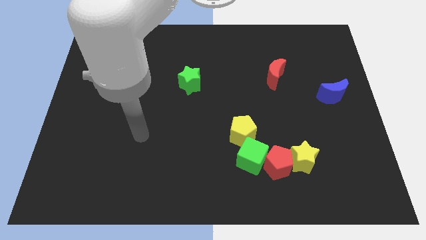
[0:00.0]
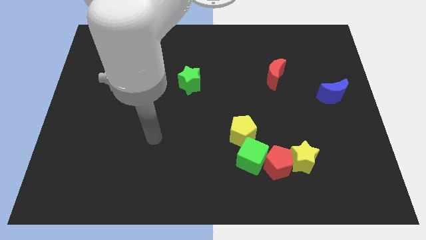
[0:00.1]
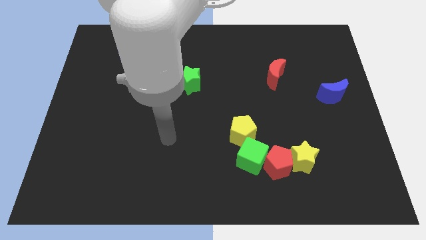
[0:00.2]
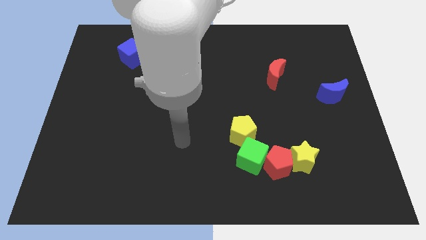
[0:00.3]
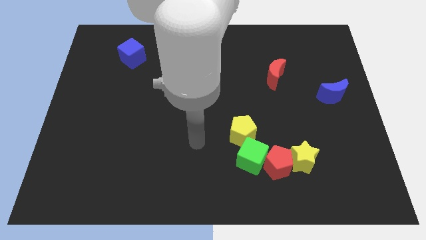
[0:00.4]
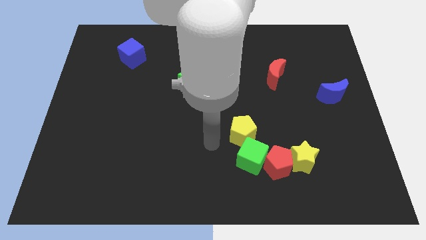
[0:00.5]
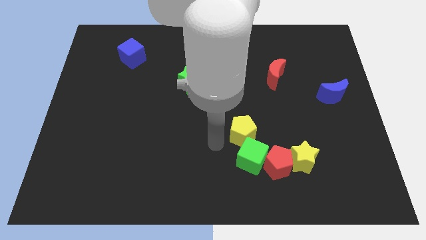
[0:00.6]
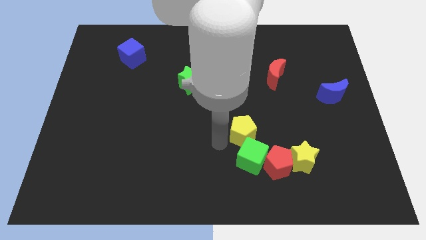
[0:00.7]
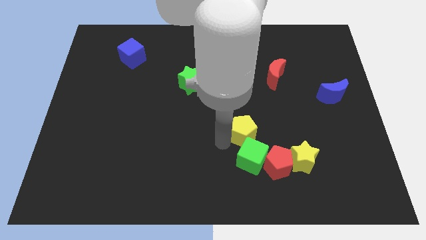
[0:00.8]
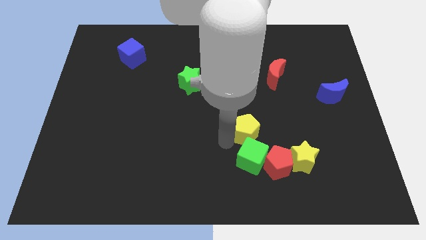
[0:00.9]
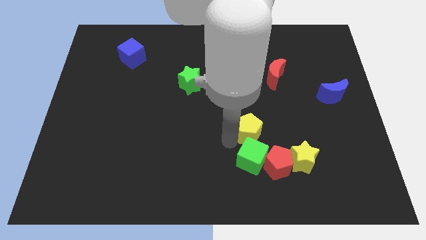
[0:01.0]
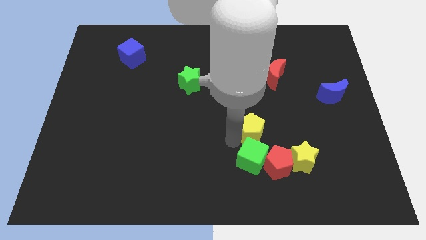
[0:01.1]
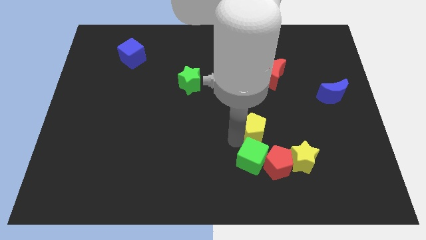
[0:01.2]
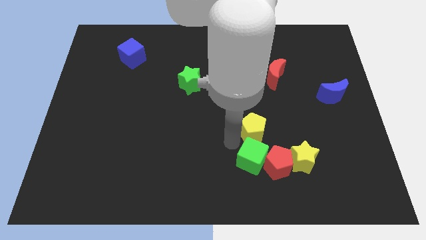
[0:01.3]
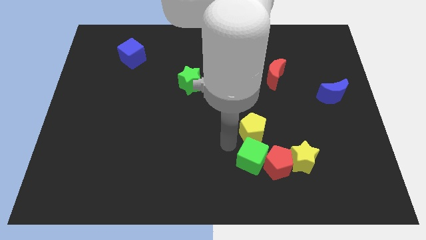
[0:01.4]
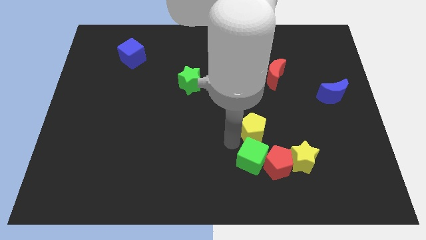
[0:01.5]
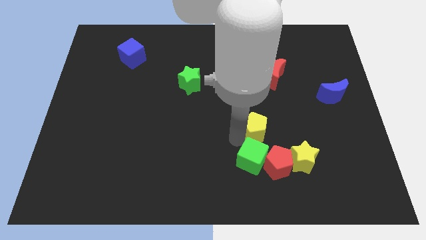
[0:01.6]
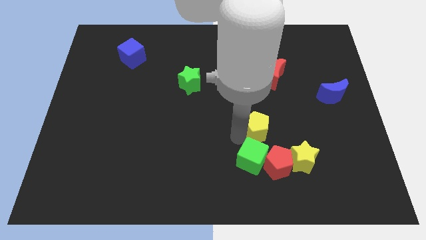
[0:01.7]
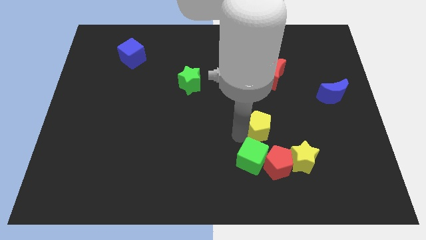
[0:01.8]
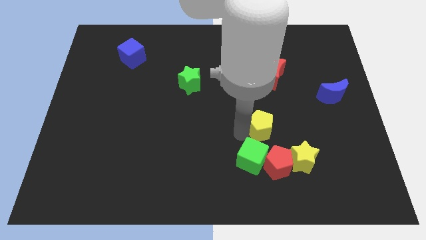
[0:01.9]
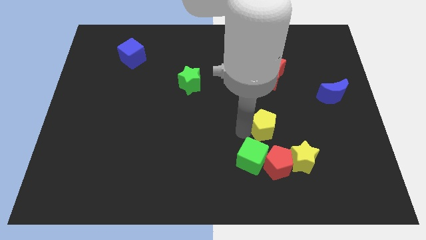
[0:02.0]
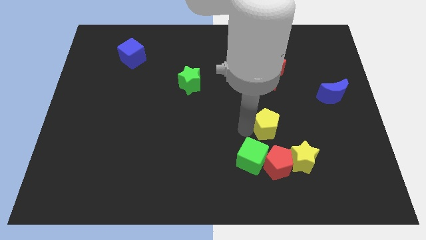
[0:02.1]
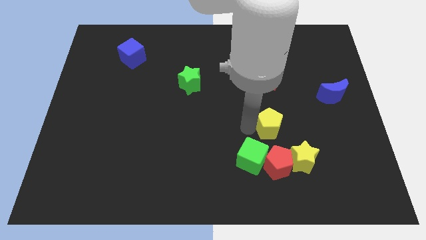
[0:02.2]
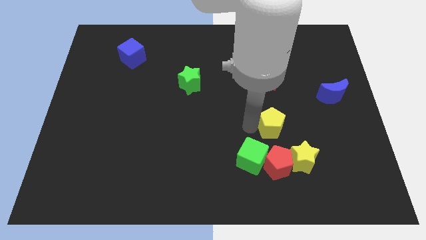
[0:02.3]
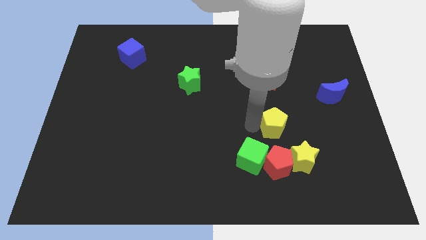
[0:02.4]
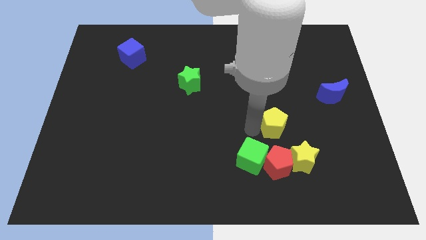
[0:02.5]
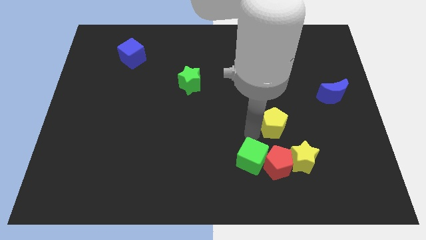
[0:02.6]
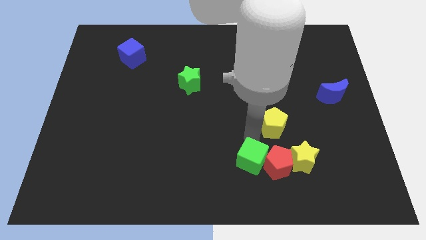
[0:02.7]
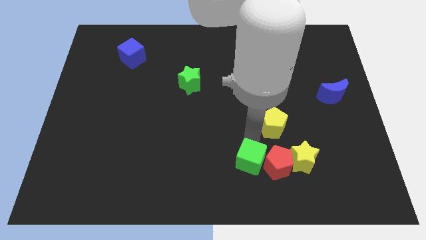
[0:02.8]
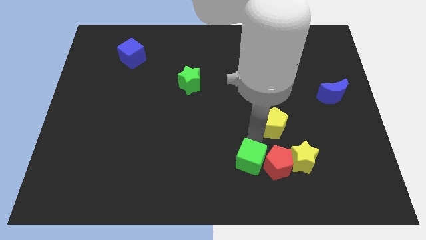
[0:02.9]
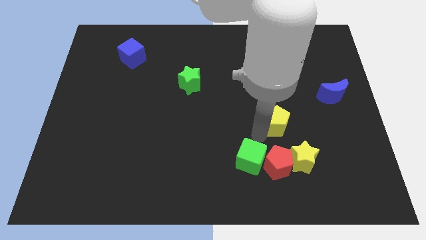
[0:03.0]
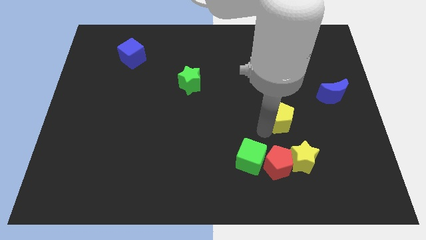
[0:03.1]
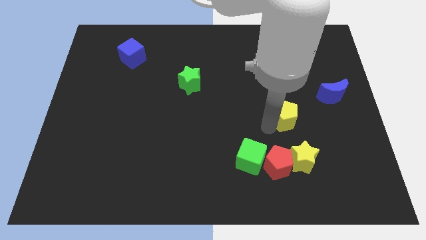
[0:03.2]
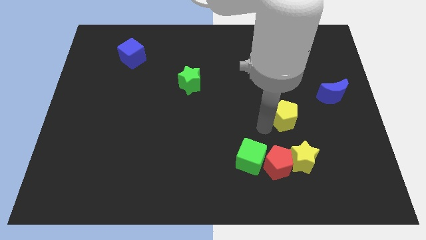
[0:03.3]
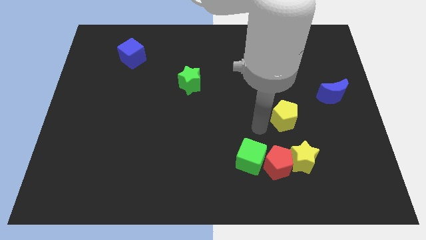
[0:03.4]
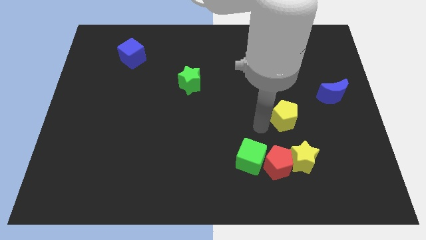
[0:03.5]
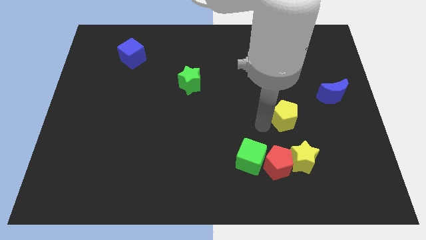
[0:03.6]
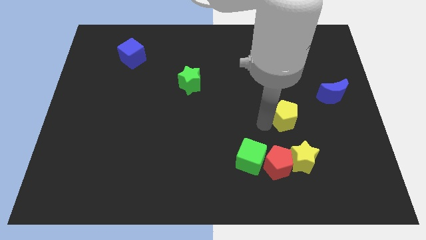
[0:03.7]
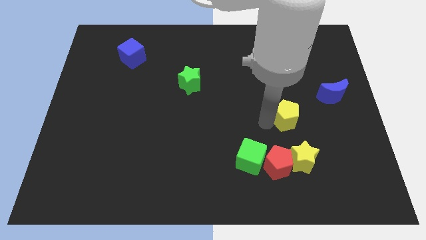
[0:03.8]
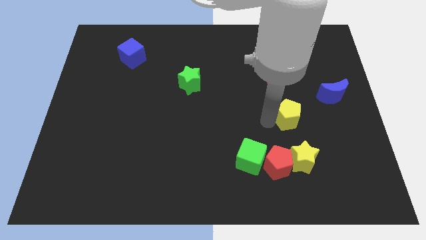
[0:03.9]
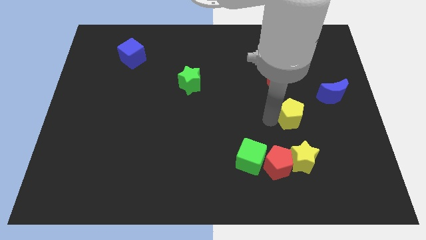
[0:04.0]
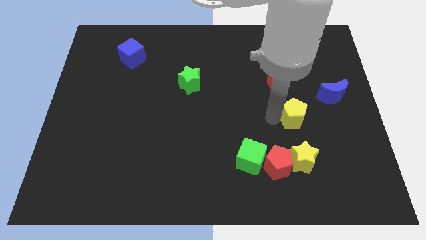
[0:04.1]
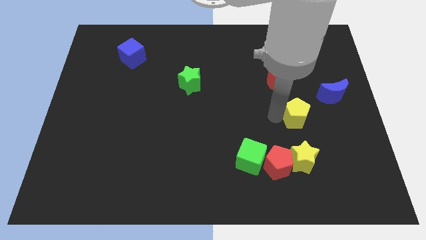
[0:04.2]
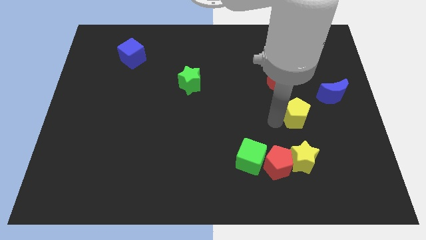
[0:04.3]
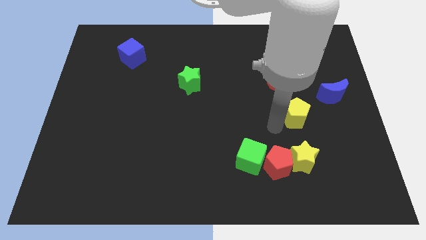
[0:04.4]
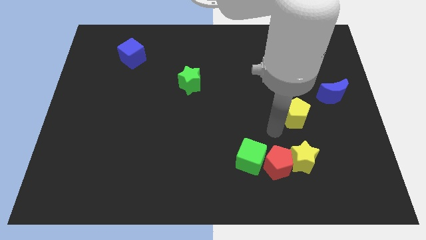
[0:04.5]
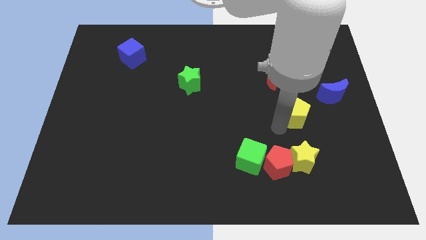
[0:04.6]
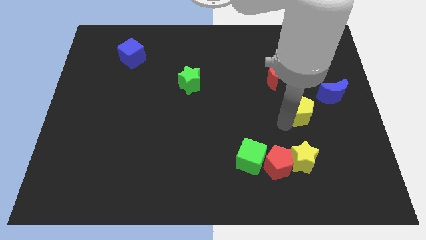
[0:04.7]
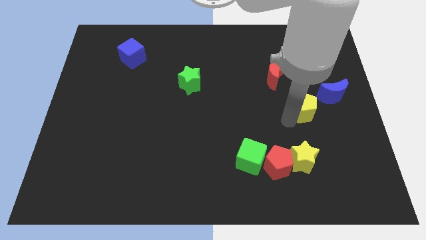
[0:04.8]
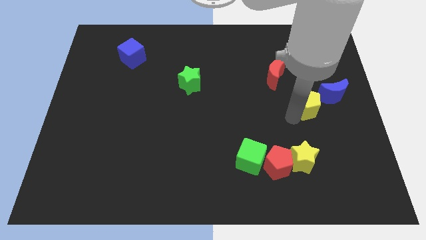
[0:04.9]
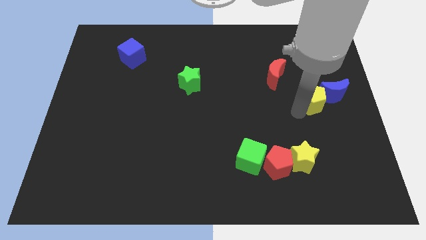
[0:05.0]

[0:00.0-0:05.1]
put the yellow pentagon next to the blue moon

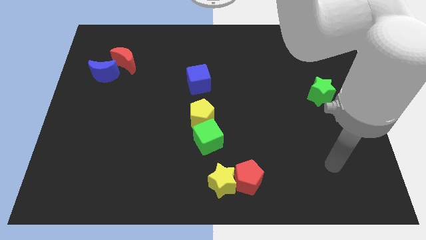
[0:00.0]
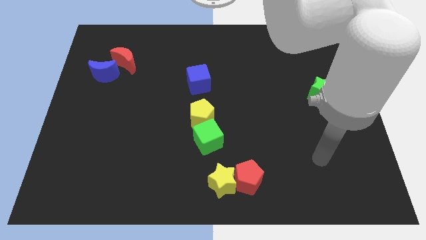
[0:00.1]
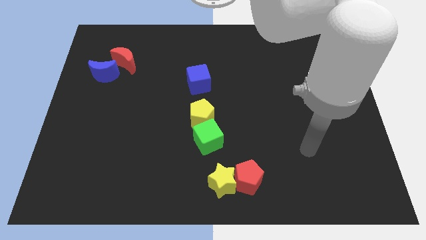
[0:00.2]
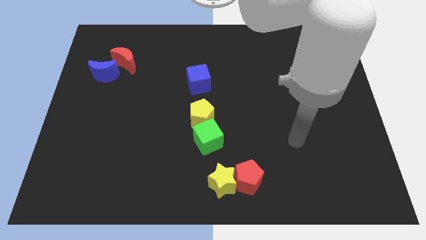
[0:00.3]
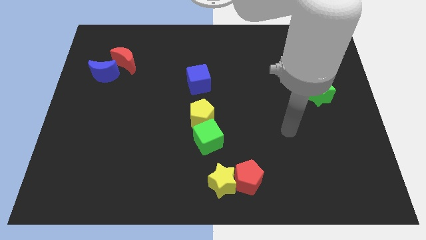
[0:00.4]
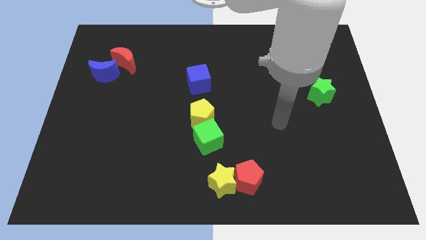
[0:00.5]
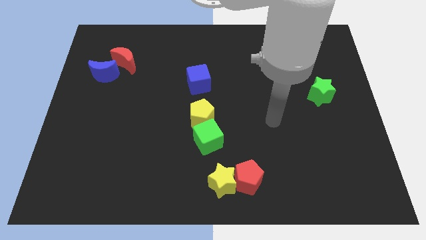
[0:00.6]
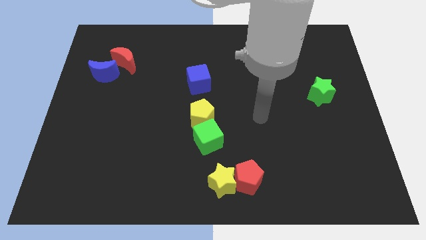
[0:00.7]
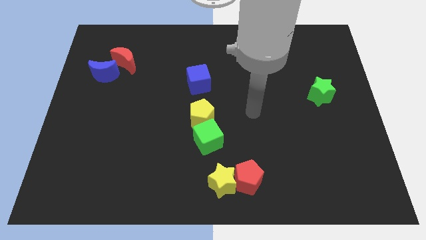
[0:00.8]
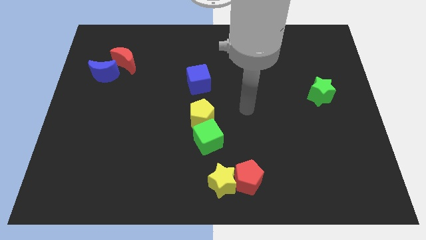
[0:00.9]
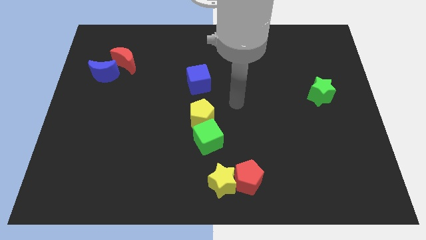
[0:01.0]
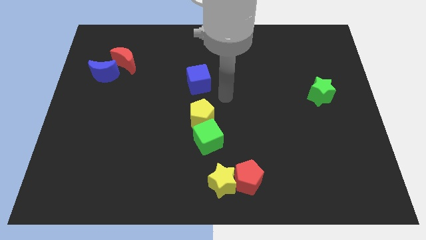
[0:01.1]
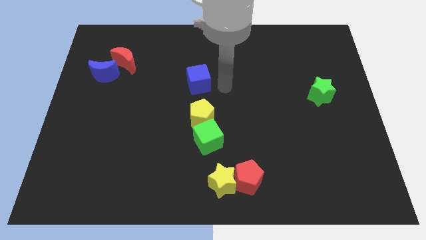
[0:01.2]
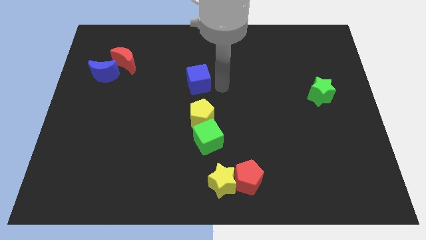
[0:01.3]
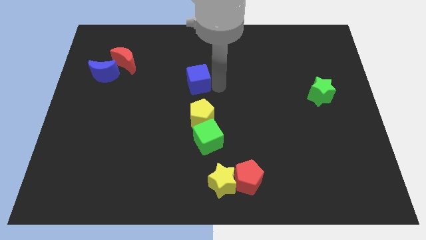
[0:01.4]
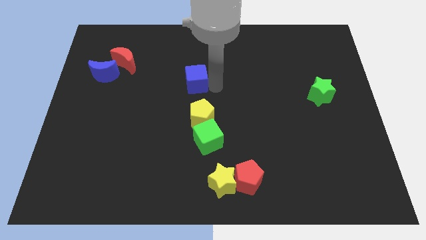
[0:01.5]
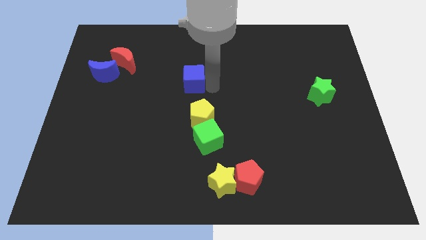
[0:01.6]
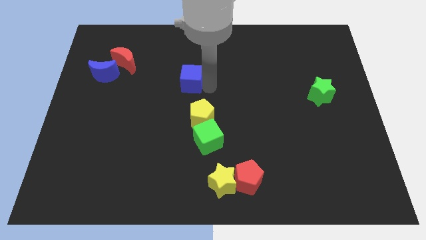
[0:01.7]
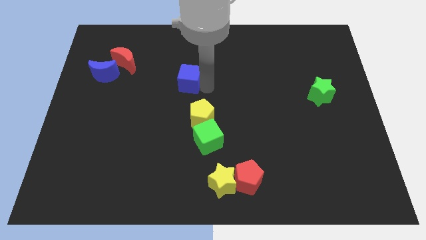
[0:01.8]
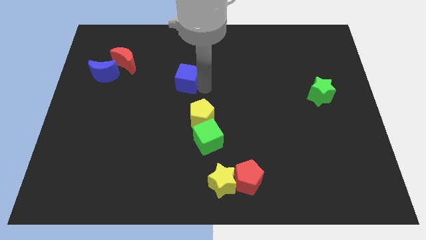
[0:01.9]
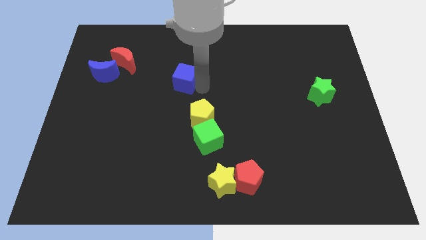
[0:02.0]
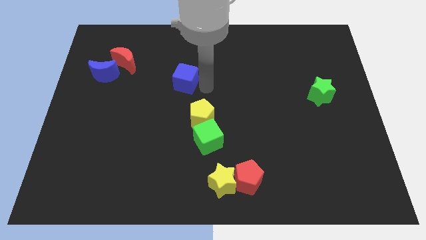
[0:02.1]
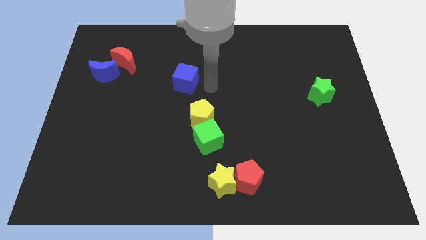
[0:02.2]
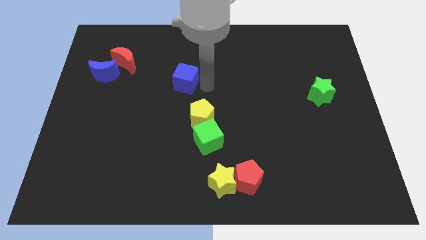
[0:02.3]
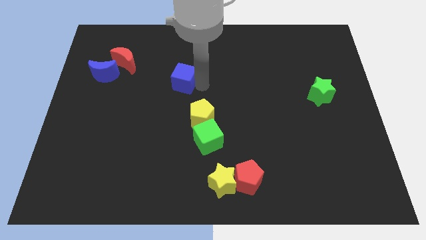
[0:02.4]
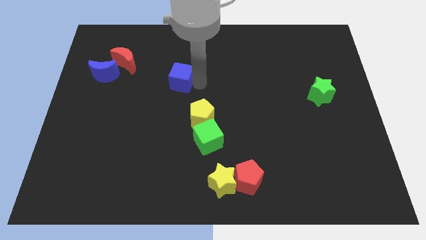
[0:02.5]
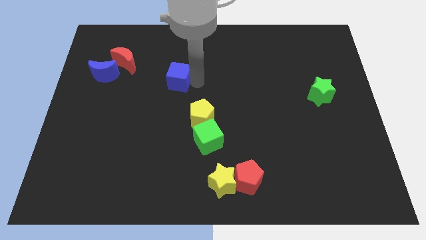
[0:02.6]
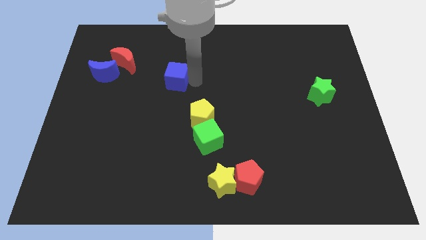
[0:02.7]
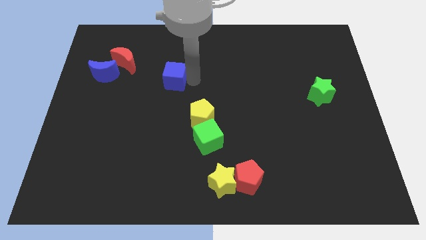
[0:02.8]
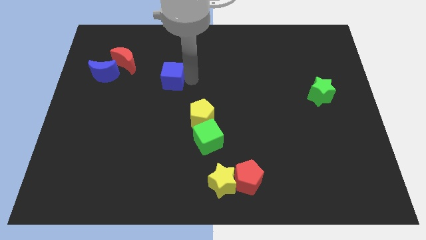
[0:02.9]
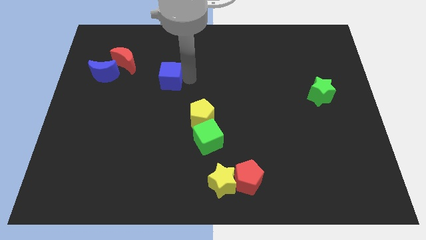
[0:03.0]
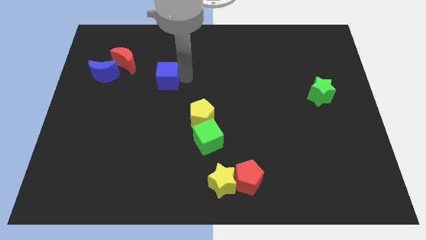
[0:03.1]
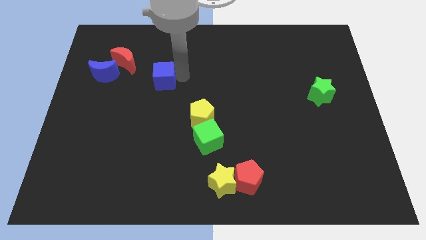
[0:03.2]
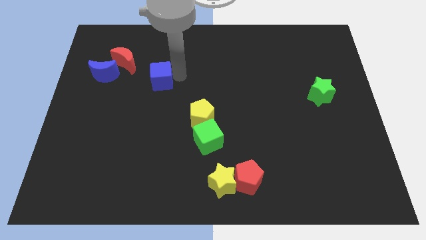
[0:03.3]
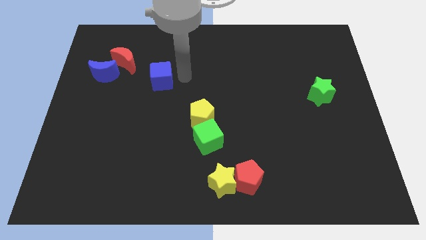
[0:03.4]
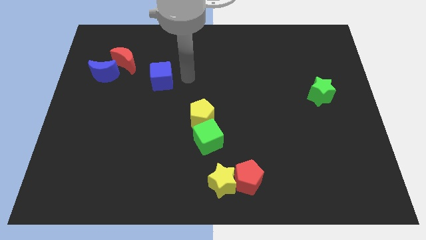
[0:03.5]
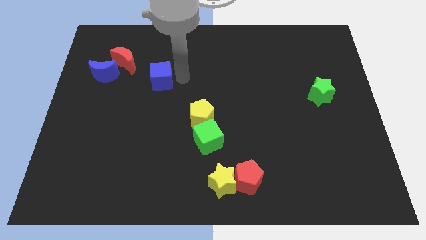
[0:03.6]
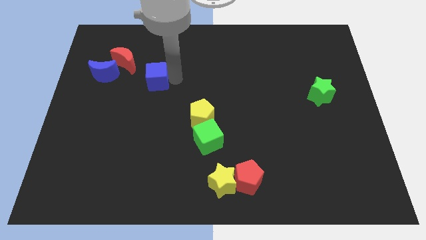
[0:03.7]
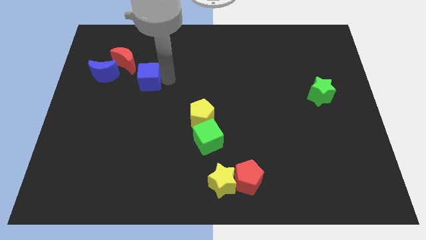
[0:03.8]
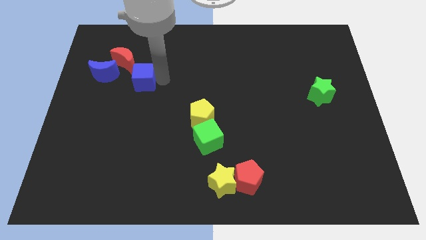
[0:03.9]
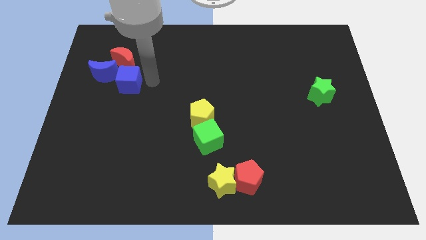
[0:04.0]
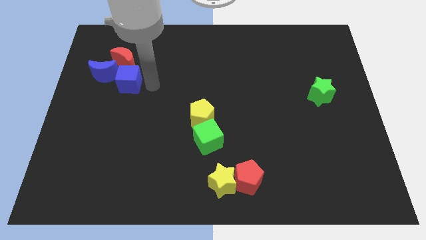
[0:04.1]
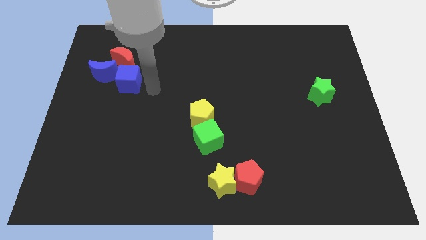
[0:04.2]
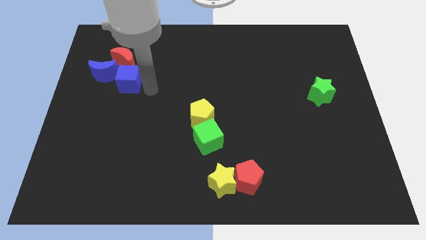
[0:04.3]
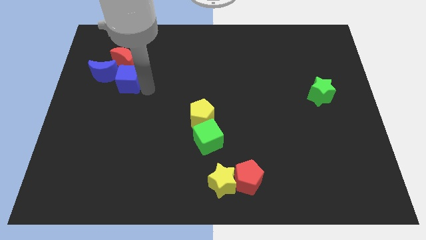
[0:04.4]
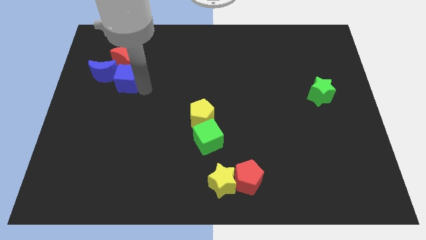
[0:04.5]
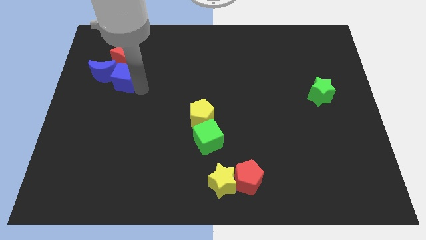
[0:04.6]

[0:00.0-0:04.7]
push the blue cube next to the blue moon
